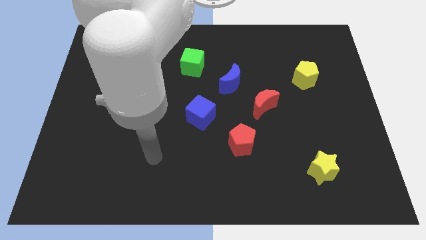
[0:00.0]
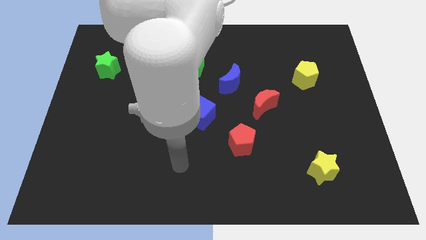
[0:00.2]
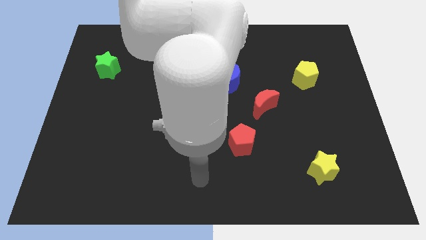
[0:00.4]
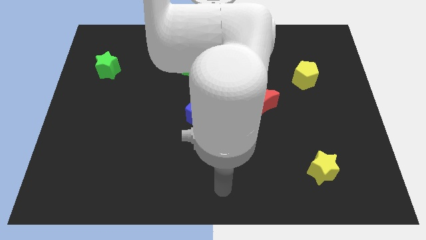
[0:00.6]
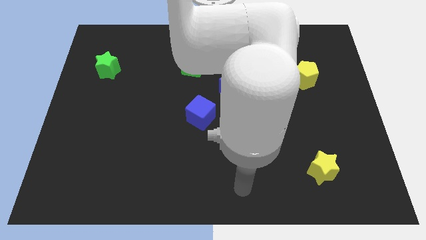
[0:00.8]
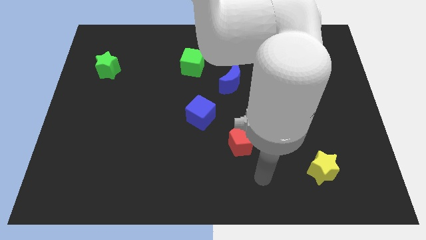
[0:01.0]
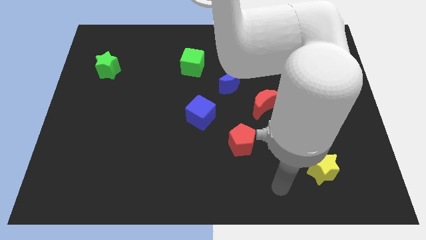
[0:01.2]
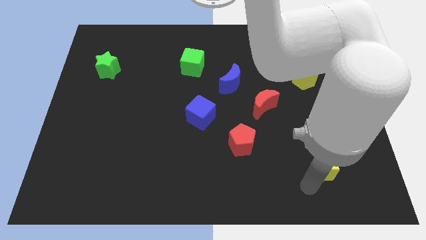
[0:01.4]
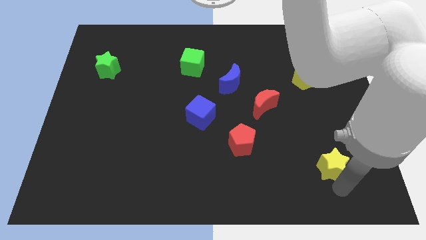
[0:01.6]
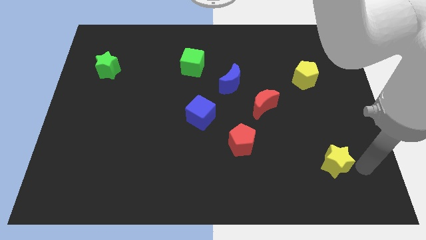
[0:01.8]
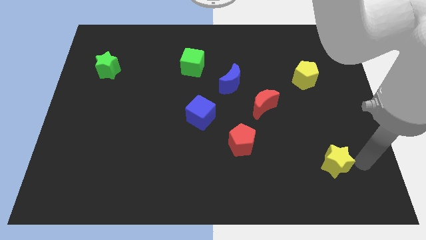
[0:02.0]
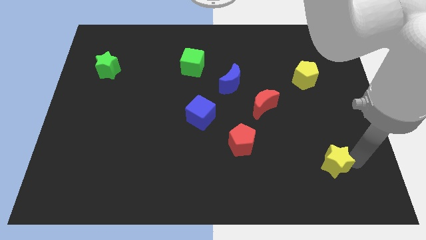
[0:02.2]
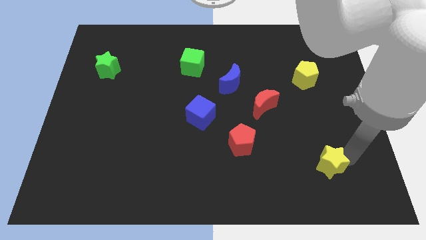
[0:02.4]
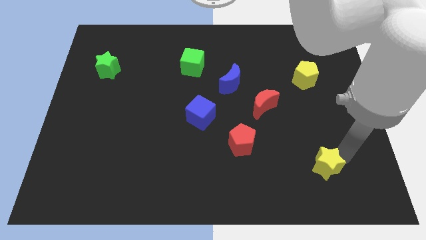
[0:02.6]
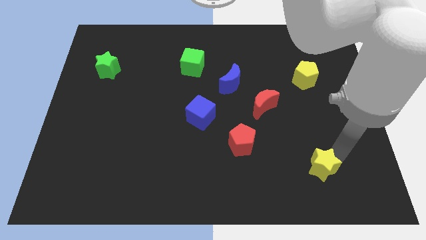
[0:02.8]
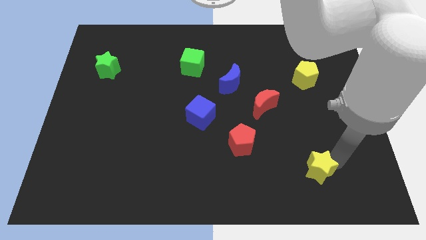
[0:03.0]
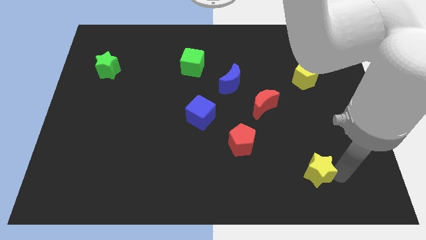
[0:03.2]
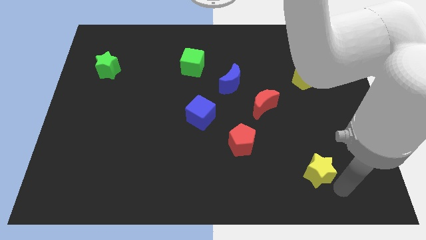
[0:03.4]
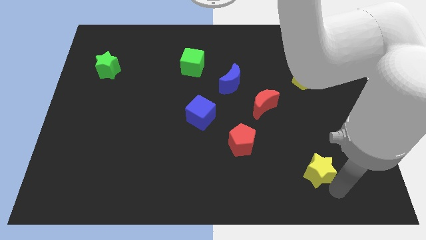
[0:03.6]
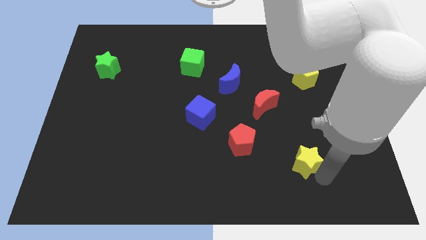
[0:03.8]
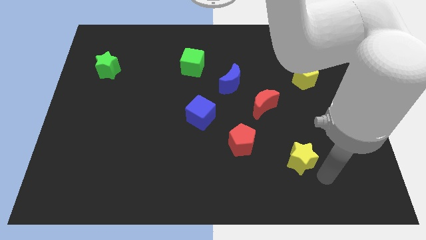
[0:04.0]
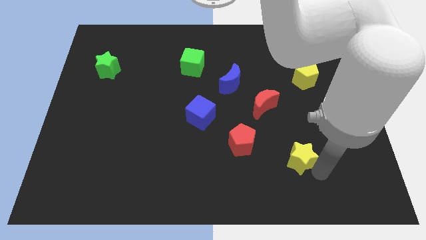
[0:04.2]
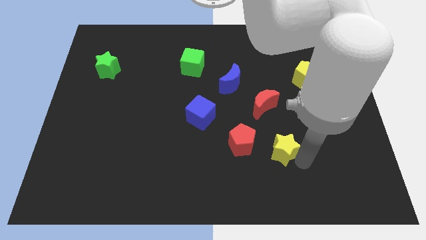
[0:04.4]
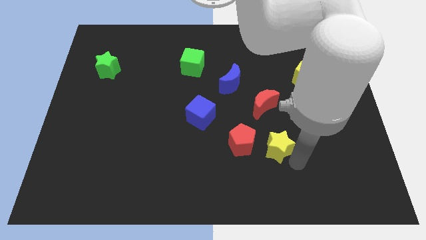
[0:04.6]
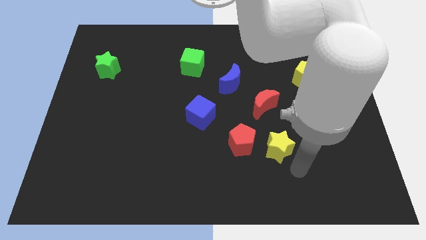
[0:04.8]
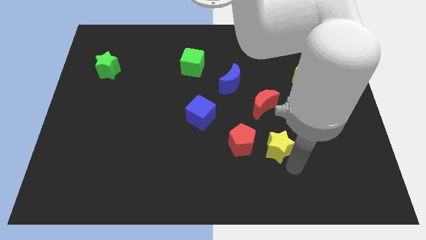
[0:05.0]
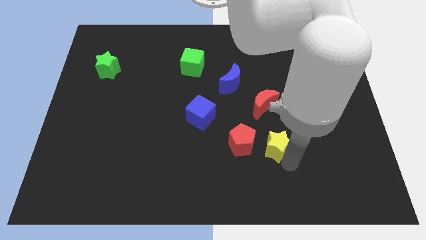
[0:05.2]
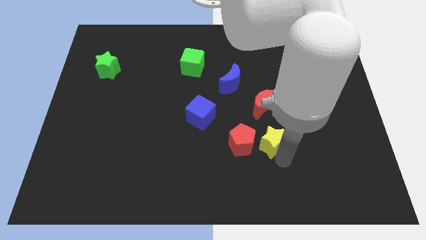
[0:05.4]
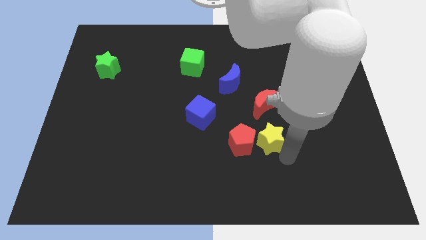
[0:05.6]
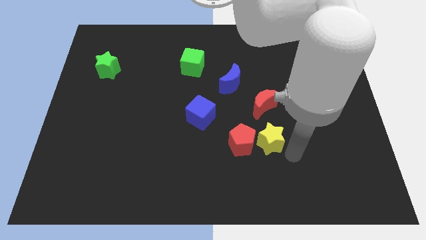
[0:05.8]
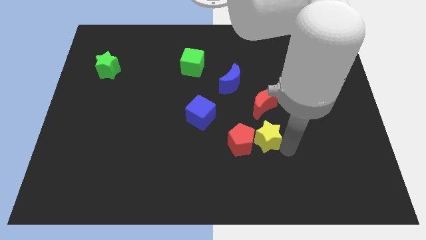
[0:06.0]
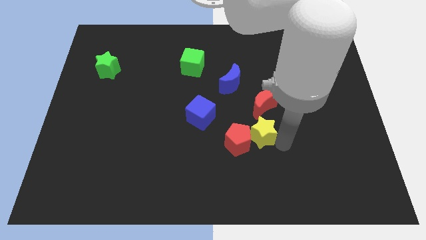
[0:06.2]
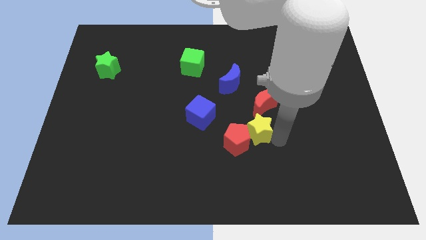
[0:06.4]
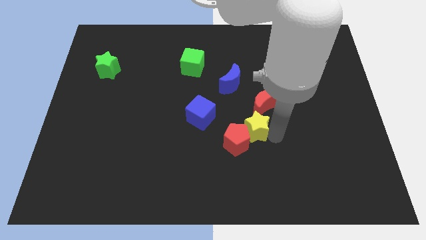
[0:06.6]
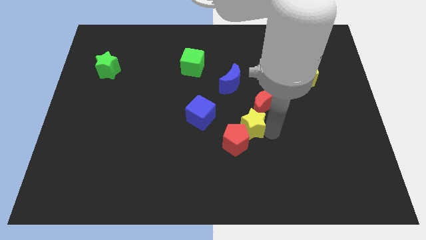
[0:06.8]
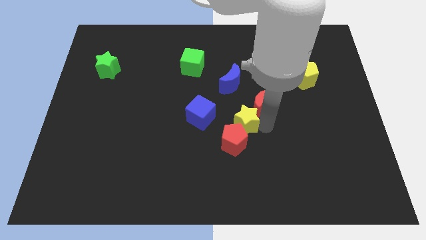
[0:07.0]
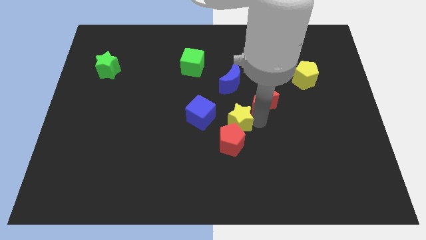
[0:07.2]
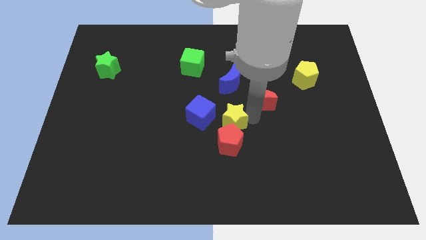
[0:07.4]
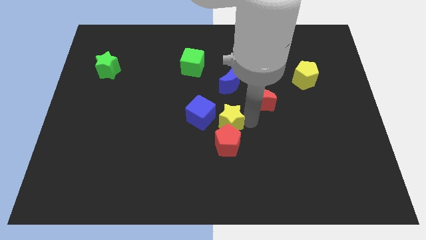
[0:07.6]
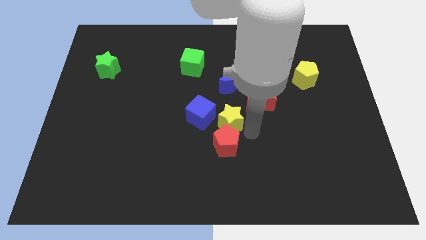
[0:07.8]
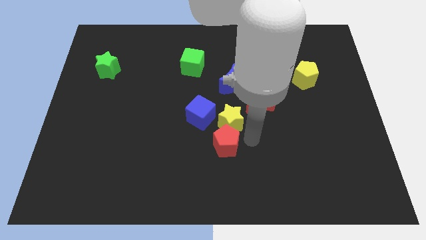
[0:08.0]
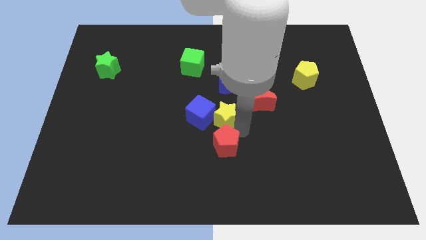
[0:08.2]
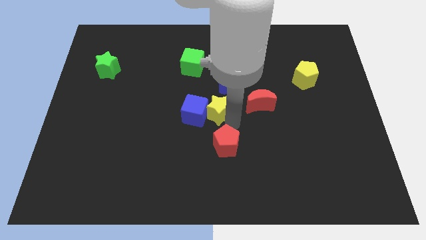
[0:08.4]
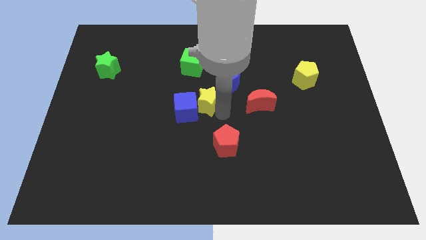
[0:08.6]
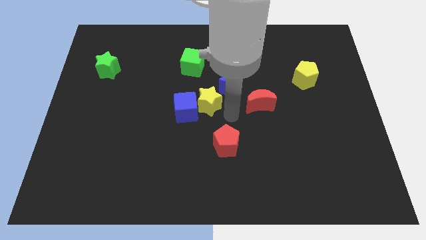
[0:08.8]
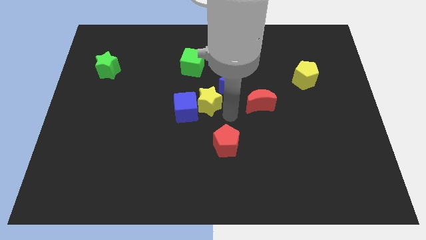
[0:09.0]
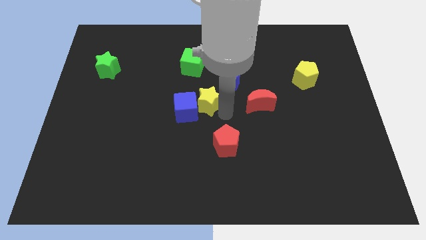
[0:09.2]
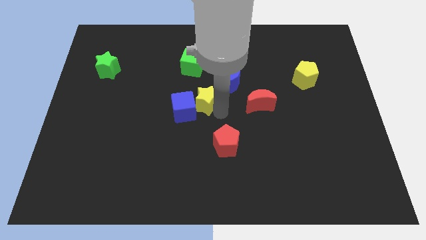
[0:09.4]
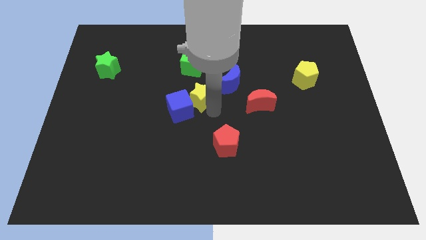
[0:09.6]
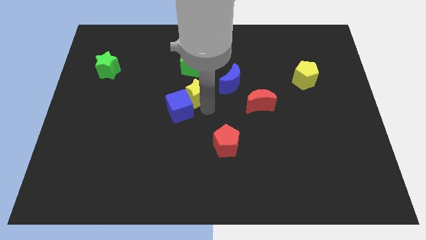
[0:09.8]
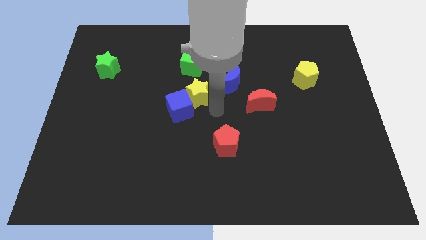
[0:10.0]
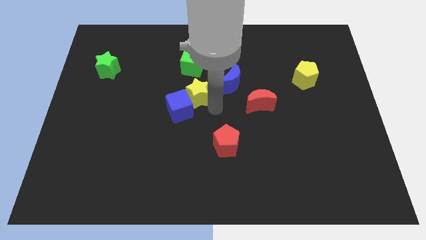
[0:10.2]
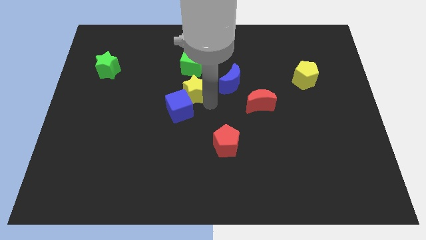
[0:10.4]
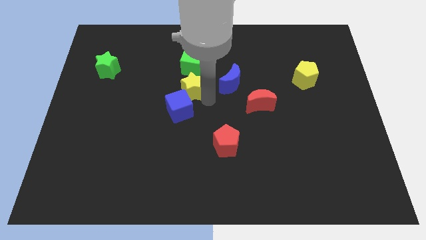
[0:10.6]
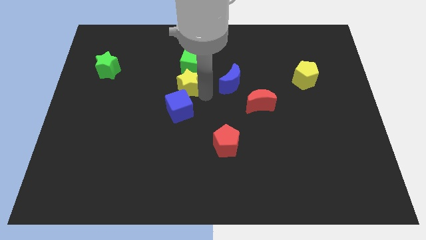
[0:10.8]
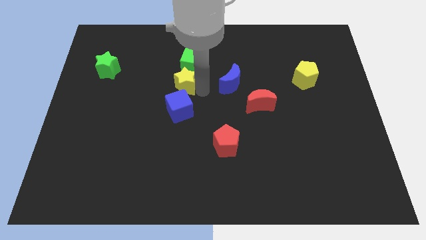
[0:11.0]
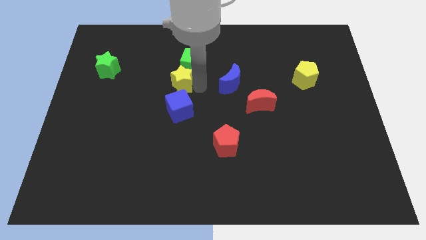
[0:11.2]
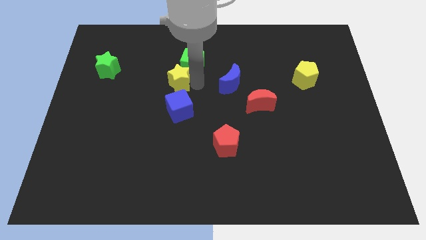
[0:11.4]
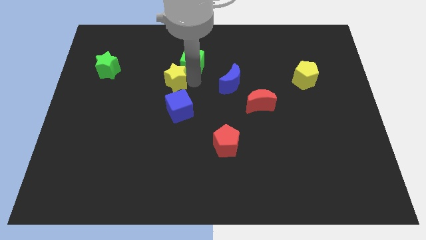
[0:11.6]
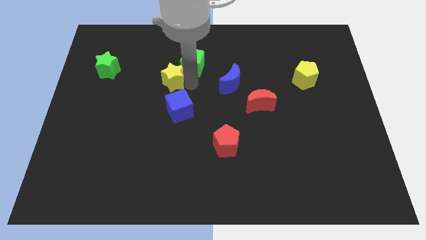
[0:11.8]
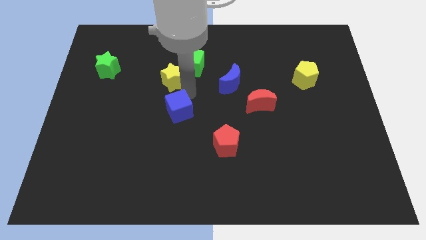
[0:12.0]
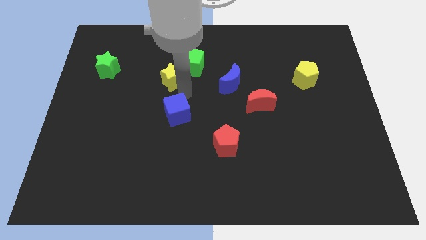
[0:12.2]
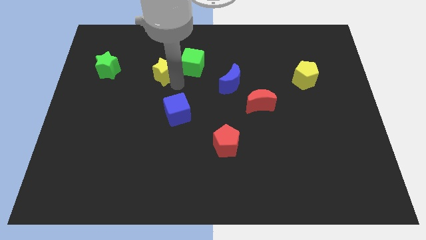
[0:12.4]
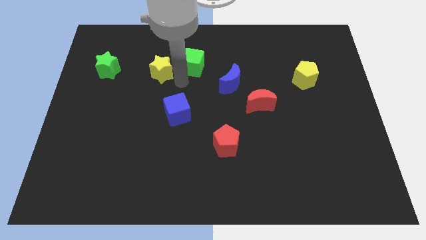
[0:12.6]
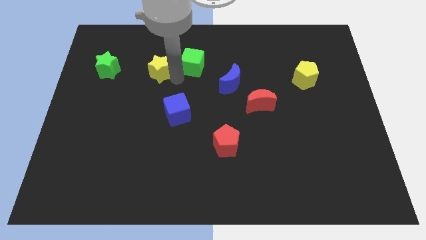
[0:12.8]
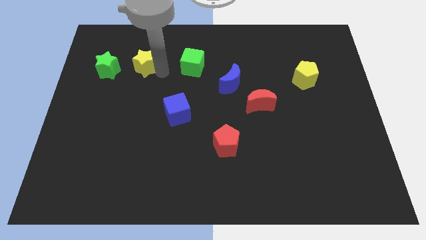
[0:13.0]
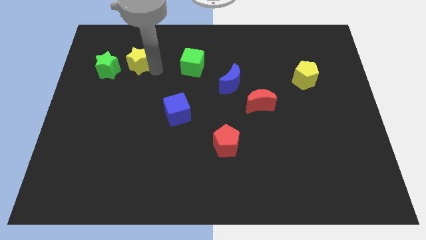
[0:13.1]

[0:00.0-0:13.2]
push the yellow star to the top right side of the green star

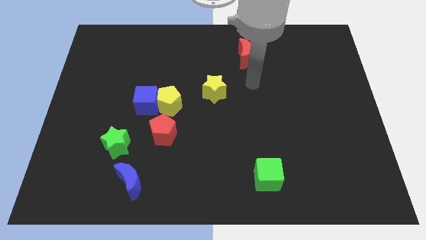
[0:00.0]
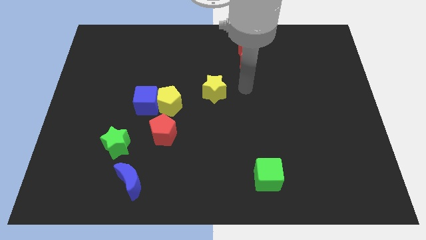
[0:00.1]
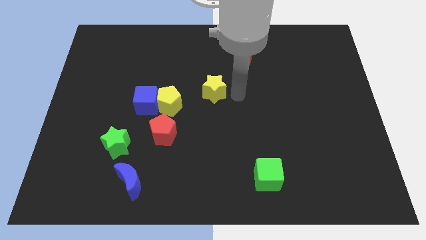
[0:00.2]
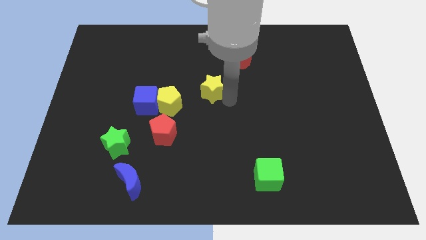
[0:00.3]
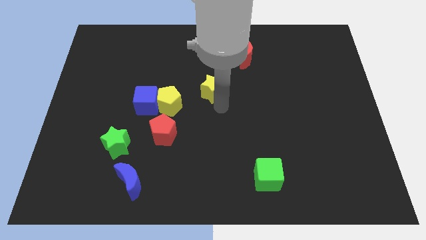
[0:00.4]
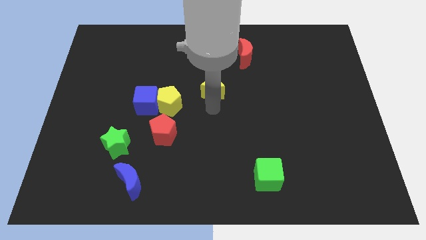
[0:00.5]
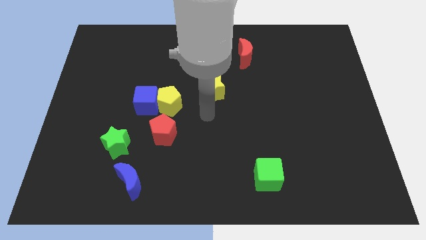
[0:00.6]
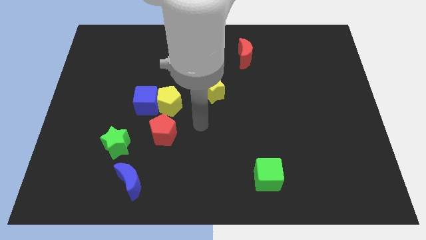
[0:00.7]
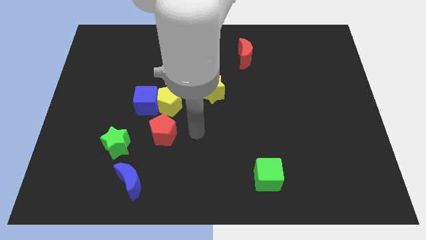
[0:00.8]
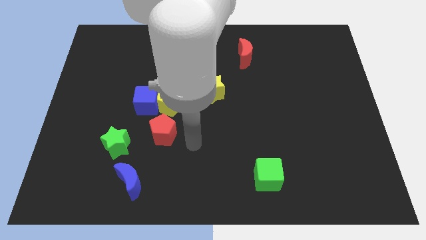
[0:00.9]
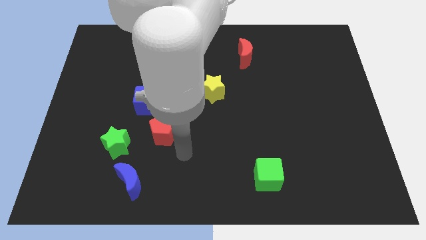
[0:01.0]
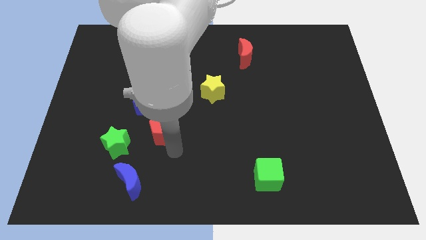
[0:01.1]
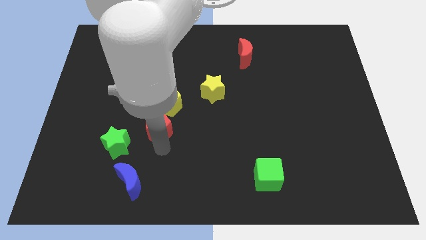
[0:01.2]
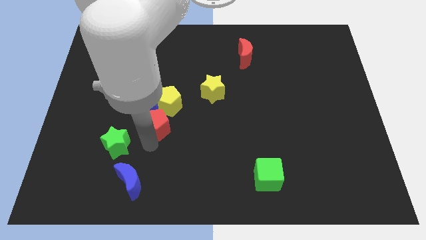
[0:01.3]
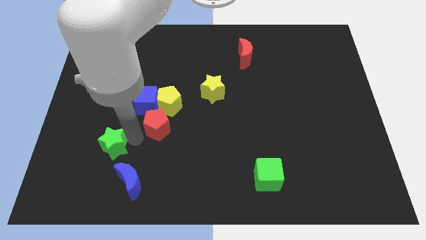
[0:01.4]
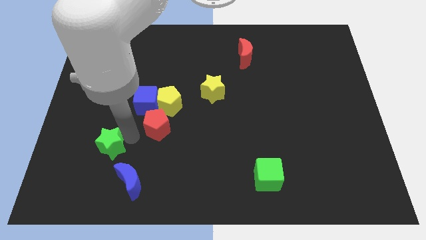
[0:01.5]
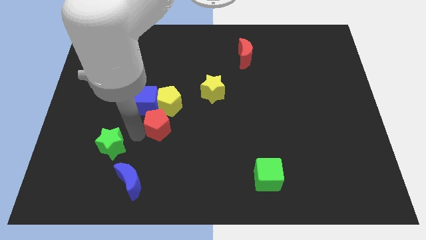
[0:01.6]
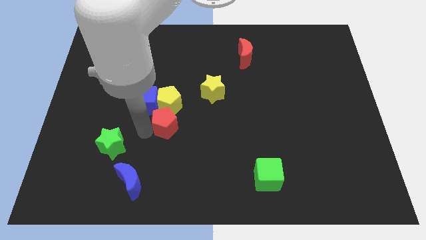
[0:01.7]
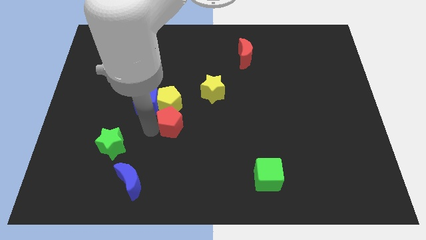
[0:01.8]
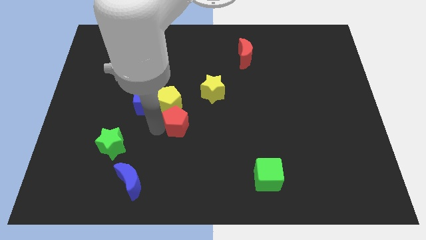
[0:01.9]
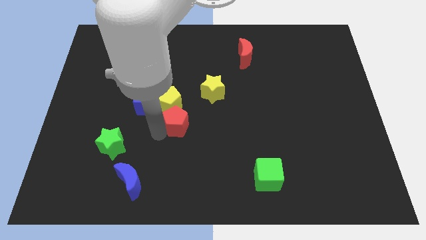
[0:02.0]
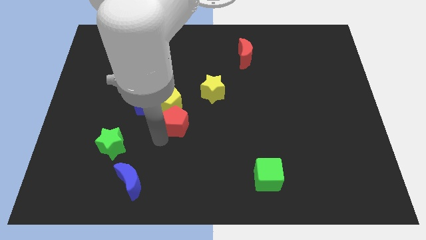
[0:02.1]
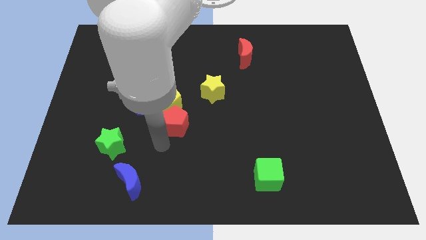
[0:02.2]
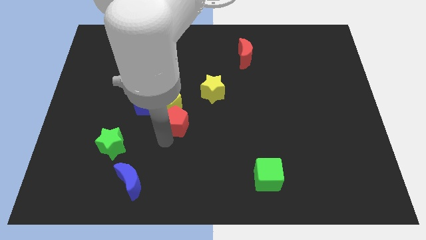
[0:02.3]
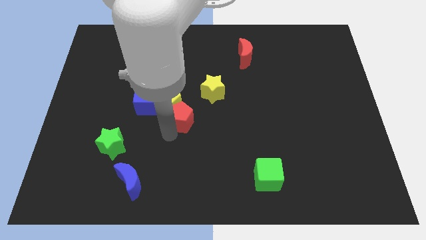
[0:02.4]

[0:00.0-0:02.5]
put the red pentagon to the right of the blue cube
